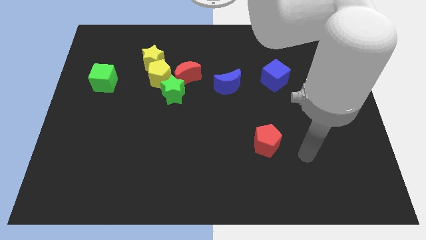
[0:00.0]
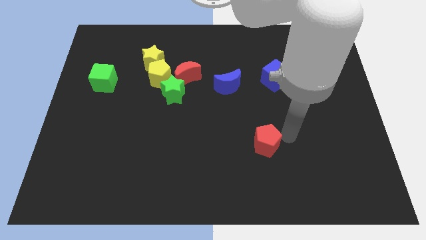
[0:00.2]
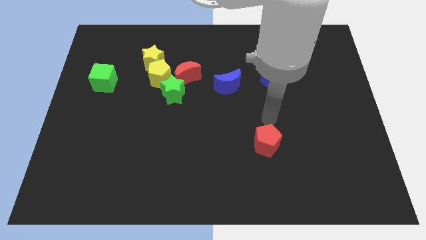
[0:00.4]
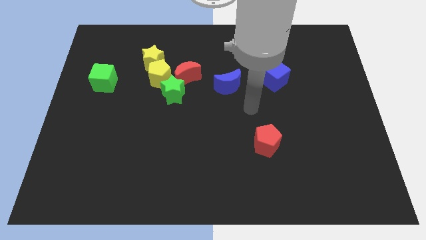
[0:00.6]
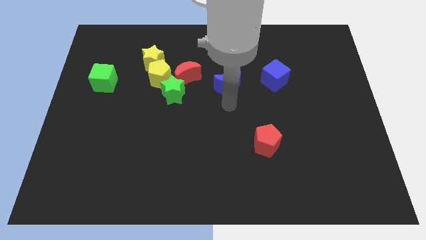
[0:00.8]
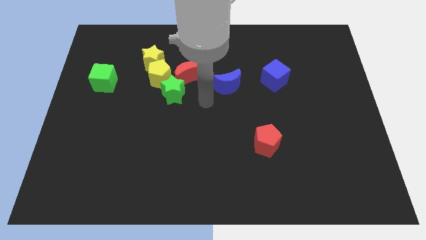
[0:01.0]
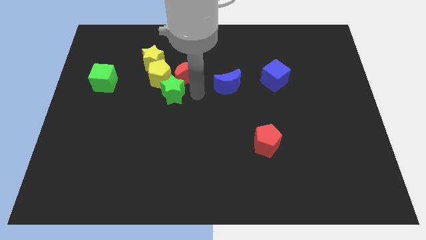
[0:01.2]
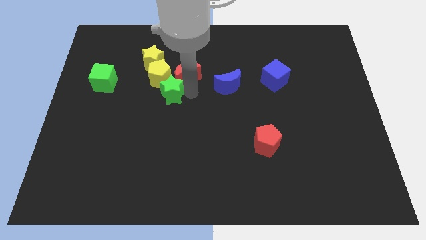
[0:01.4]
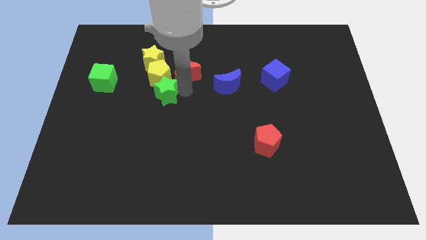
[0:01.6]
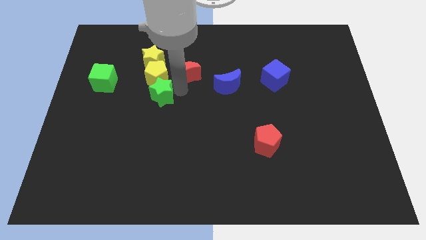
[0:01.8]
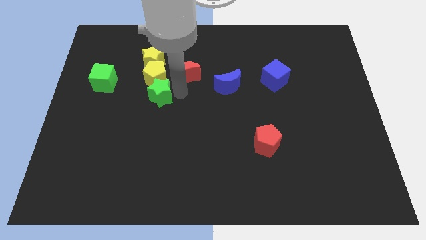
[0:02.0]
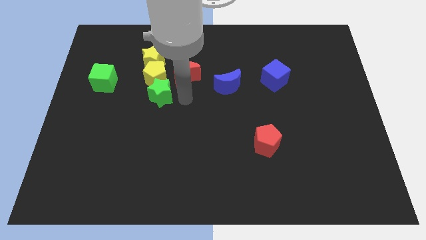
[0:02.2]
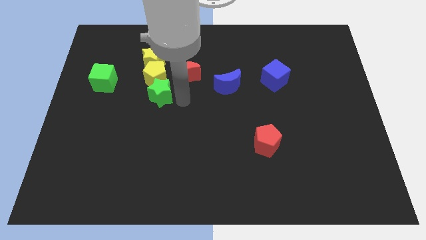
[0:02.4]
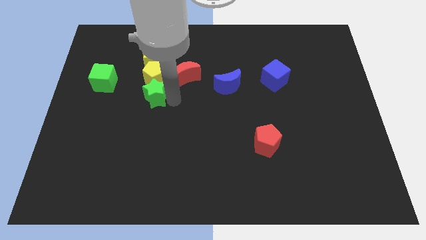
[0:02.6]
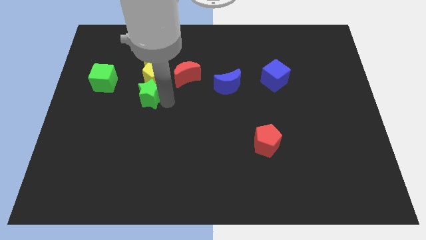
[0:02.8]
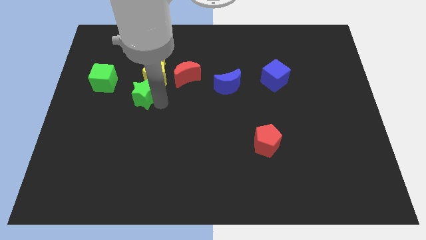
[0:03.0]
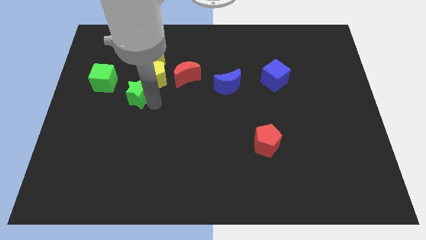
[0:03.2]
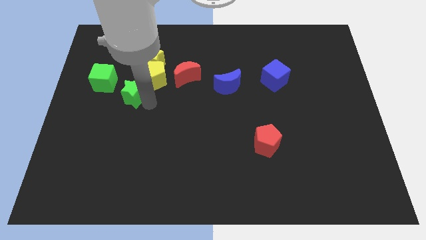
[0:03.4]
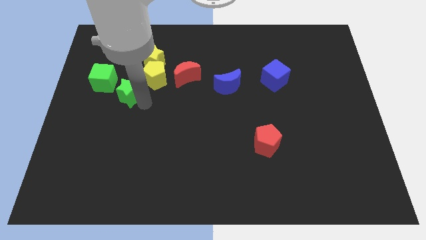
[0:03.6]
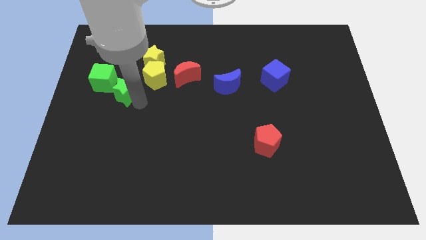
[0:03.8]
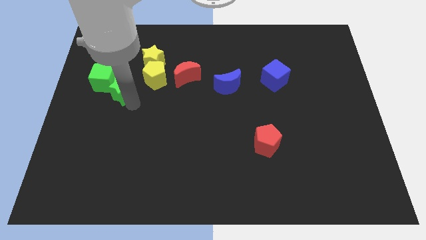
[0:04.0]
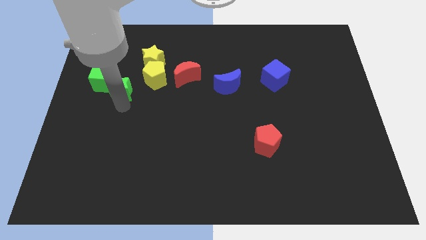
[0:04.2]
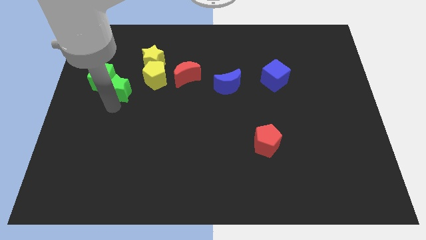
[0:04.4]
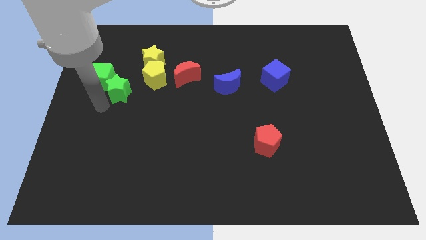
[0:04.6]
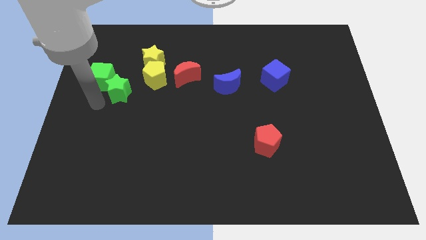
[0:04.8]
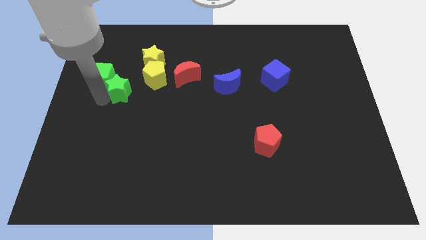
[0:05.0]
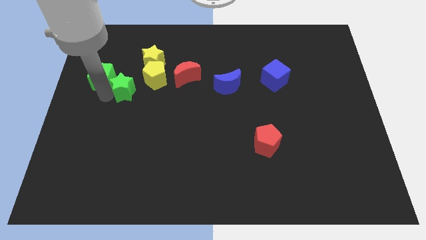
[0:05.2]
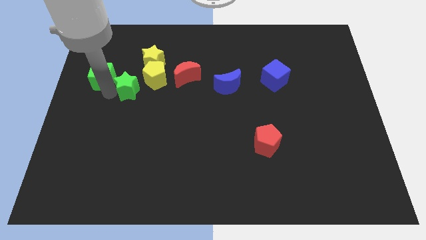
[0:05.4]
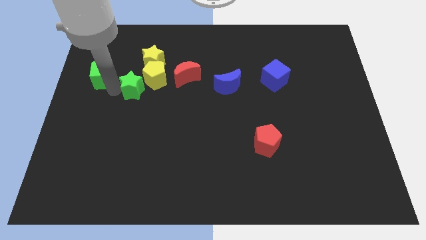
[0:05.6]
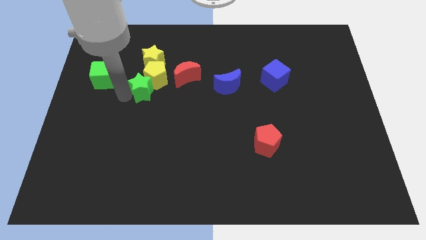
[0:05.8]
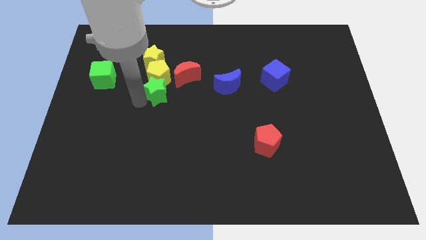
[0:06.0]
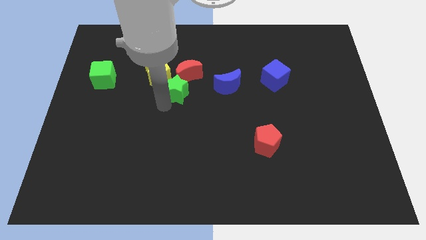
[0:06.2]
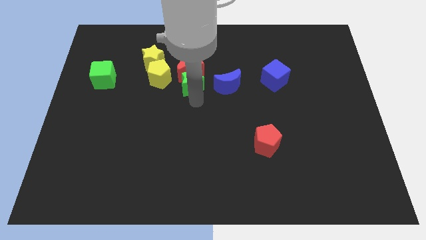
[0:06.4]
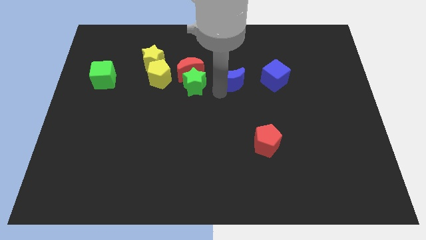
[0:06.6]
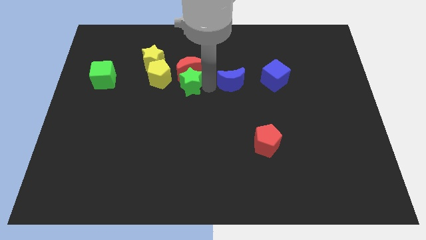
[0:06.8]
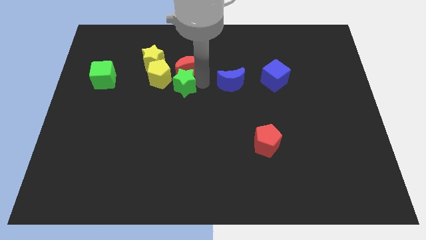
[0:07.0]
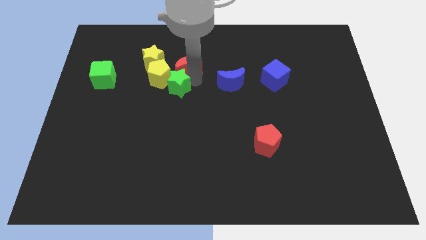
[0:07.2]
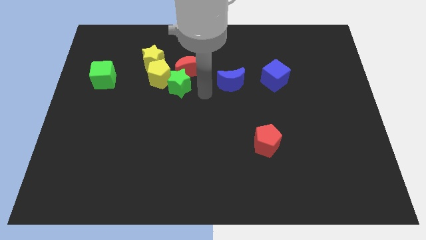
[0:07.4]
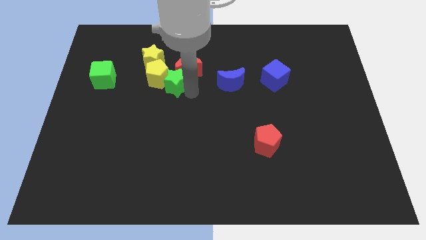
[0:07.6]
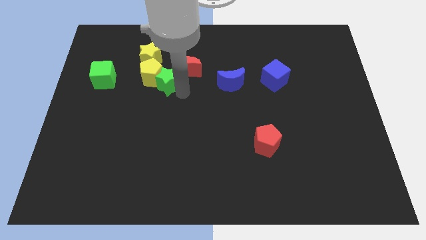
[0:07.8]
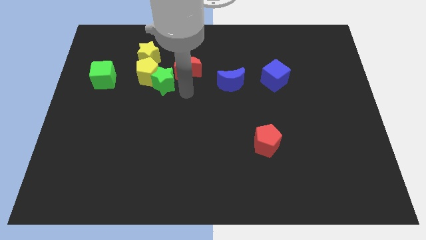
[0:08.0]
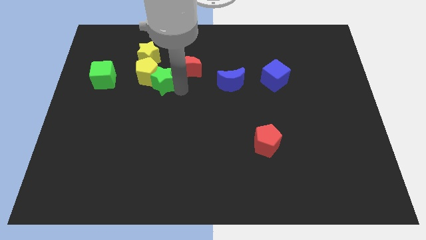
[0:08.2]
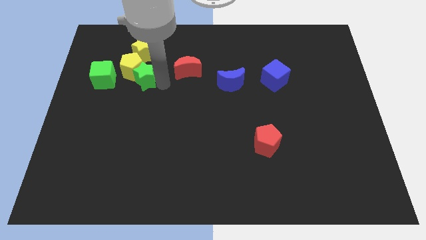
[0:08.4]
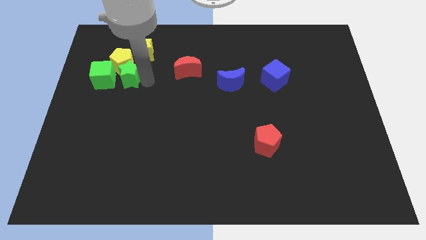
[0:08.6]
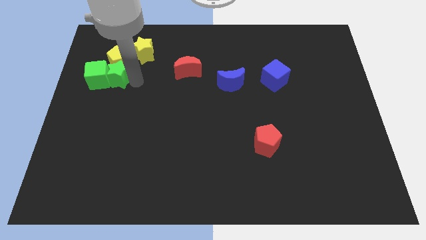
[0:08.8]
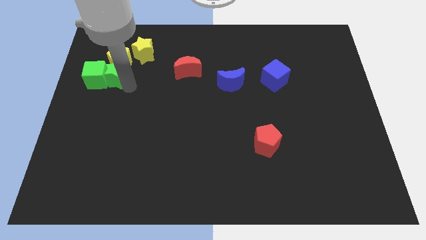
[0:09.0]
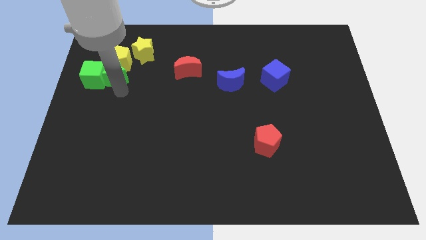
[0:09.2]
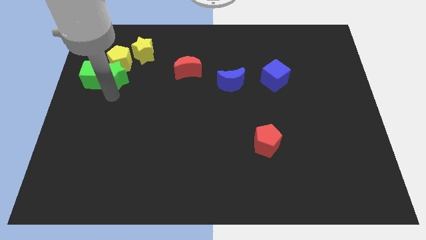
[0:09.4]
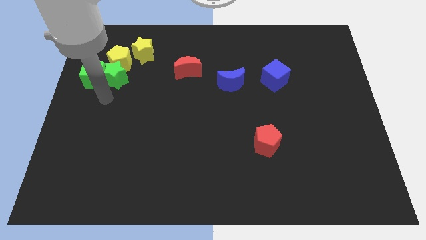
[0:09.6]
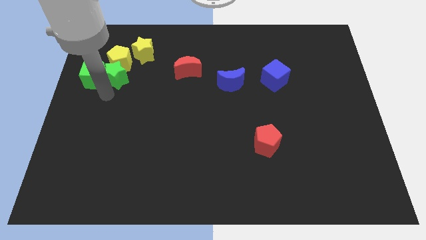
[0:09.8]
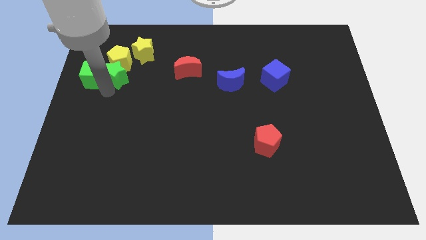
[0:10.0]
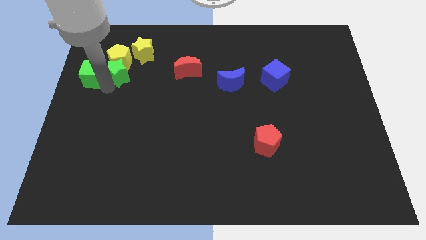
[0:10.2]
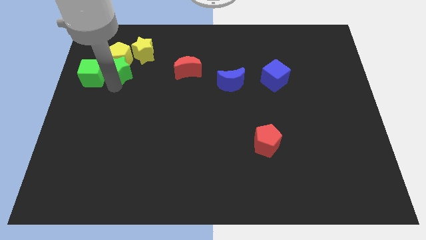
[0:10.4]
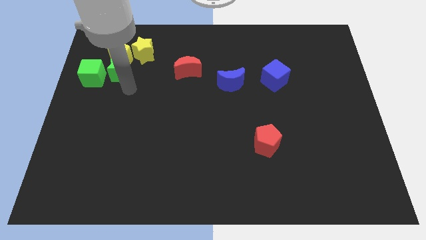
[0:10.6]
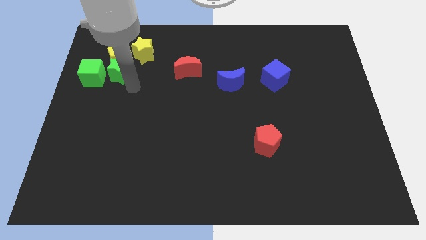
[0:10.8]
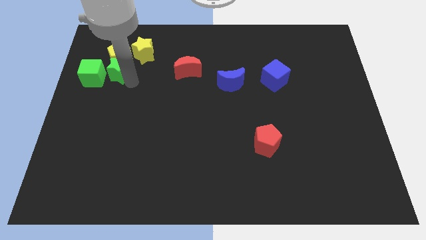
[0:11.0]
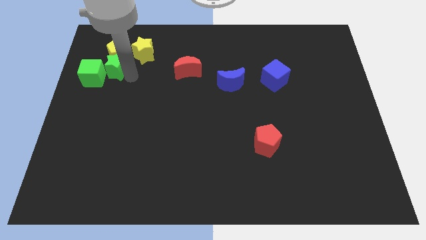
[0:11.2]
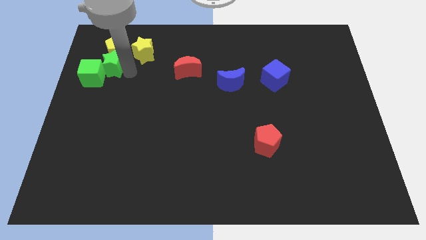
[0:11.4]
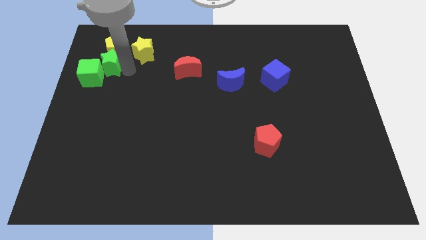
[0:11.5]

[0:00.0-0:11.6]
move the green star just left of the yellow star

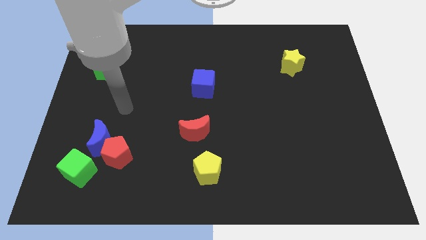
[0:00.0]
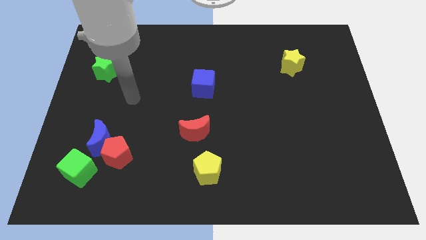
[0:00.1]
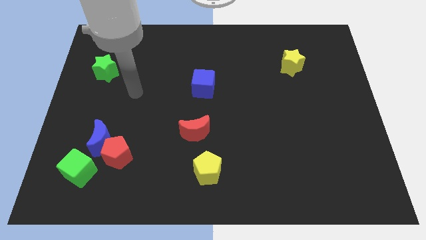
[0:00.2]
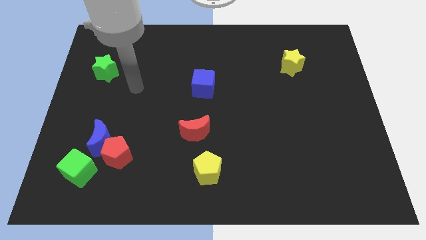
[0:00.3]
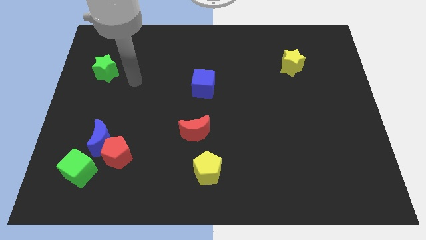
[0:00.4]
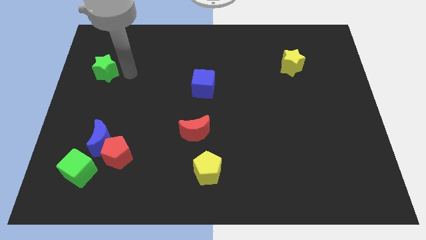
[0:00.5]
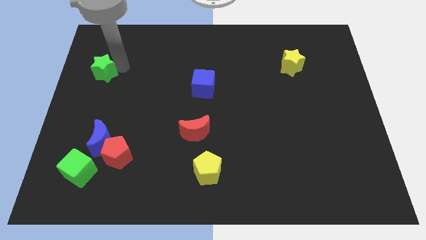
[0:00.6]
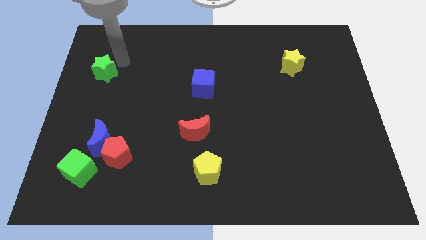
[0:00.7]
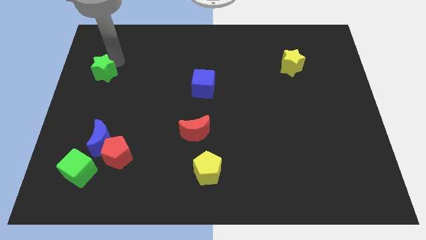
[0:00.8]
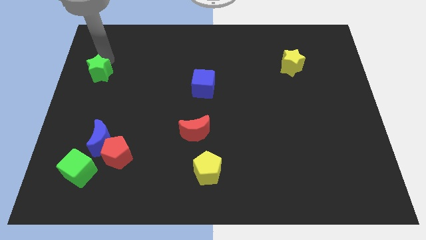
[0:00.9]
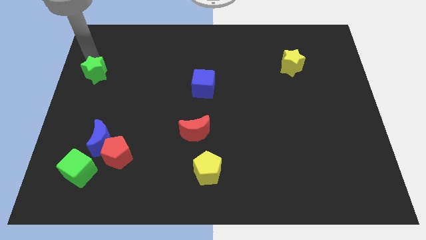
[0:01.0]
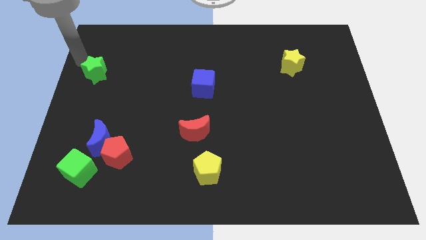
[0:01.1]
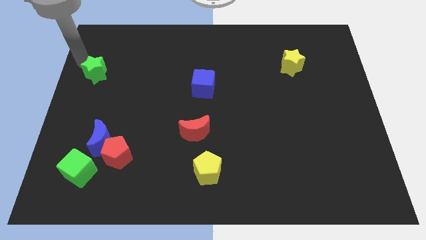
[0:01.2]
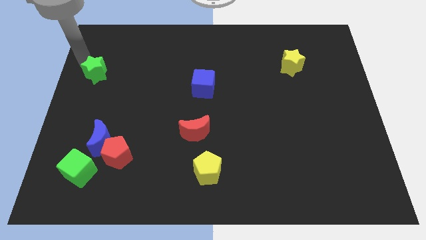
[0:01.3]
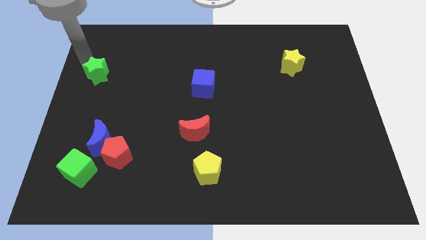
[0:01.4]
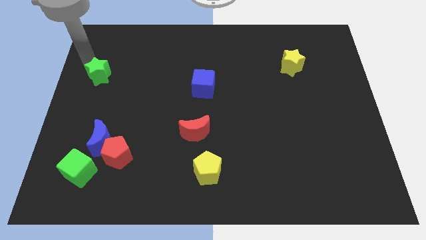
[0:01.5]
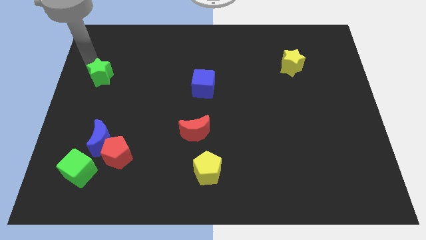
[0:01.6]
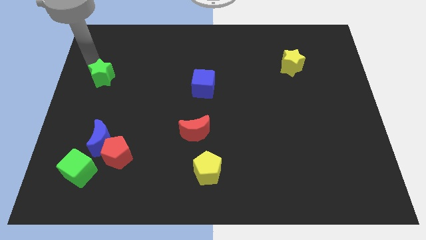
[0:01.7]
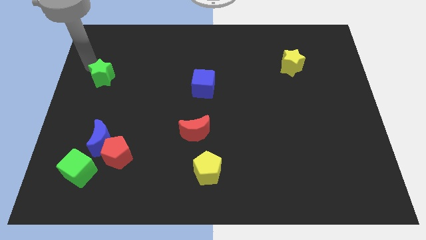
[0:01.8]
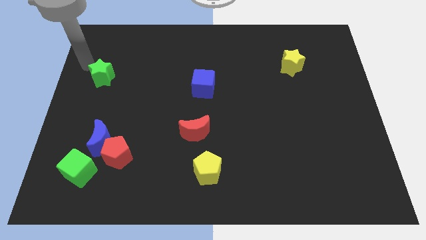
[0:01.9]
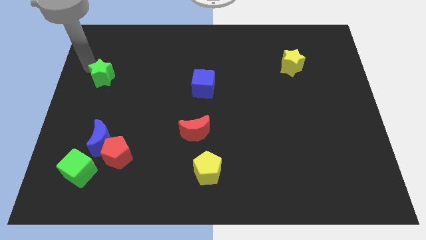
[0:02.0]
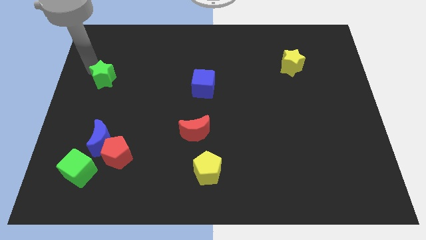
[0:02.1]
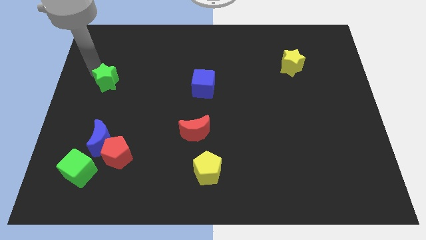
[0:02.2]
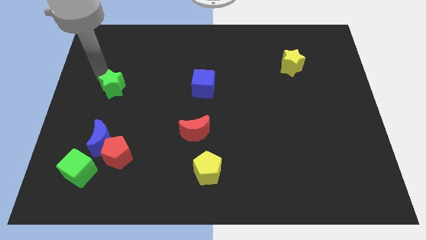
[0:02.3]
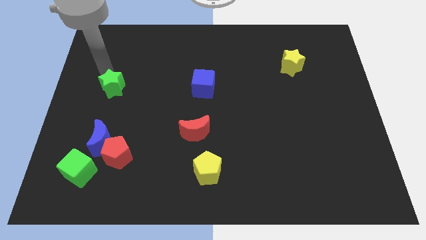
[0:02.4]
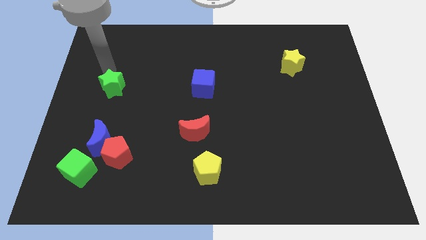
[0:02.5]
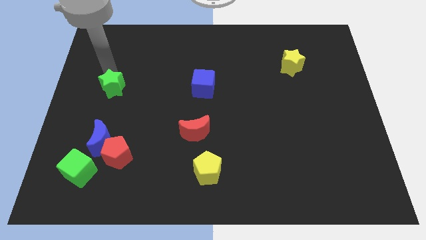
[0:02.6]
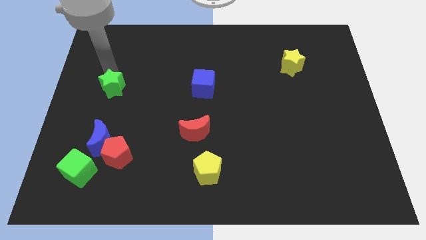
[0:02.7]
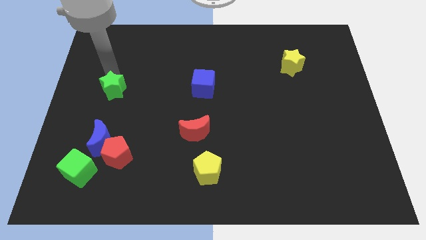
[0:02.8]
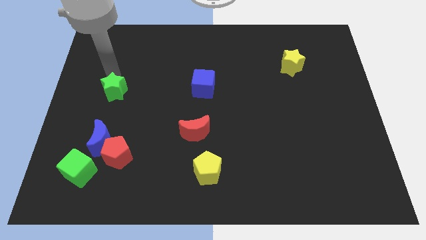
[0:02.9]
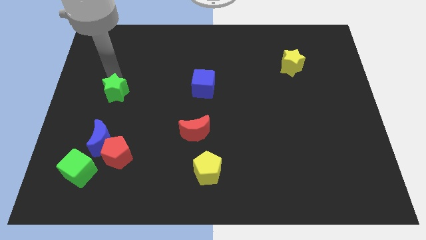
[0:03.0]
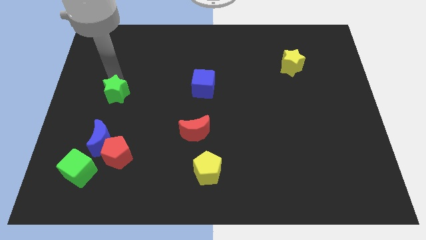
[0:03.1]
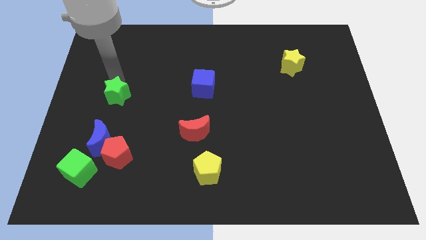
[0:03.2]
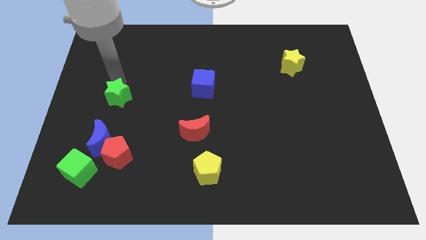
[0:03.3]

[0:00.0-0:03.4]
slide the green star to the top side of the red pentagon
